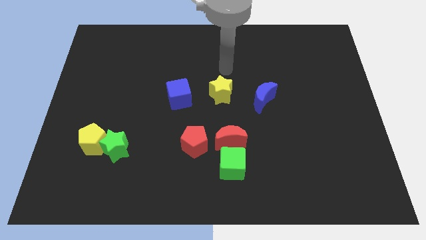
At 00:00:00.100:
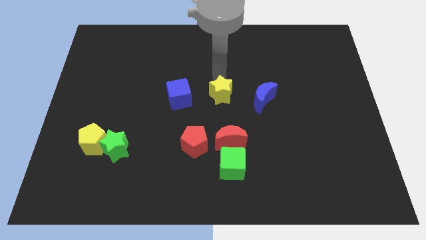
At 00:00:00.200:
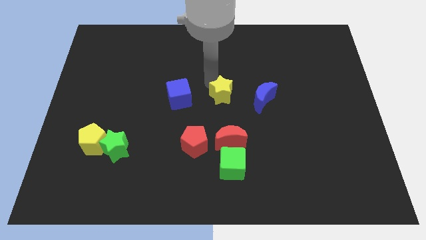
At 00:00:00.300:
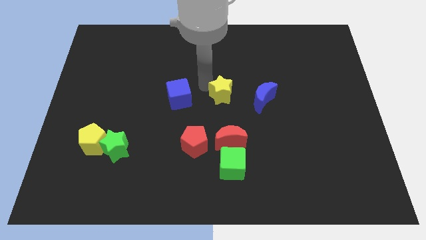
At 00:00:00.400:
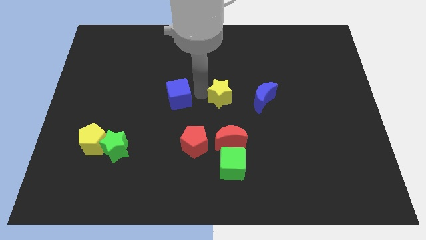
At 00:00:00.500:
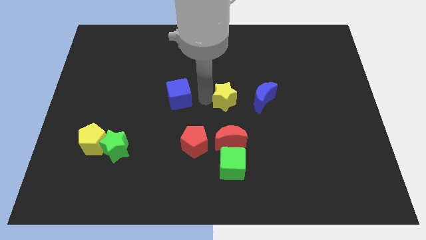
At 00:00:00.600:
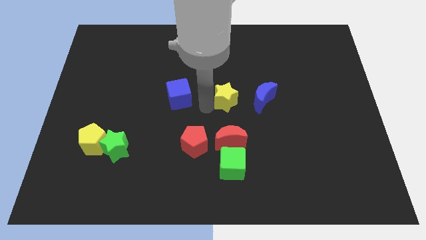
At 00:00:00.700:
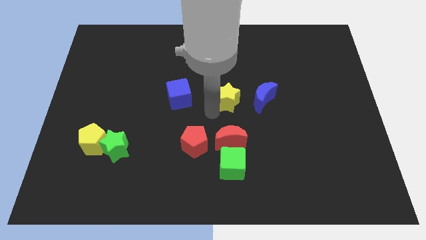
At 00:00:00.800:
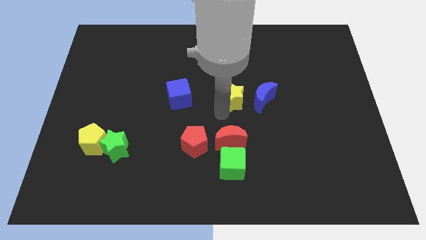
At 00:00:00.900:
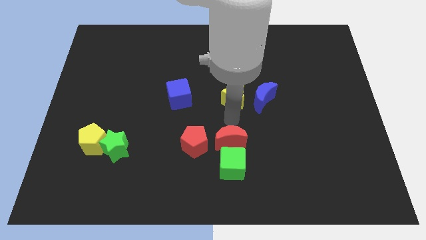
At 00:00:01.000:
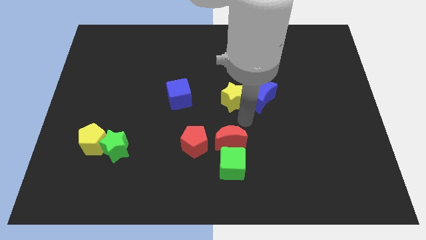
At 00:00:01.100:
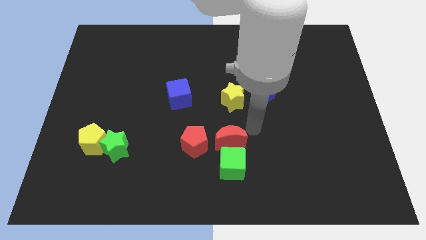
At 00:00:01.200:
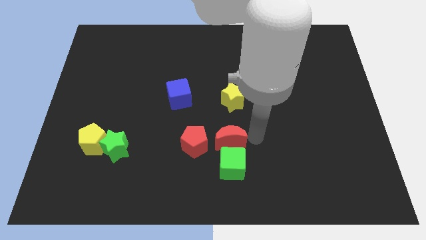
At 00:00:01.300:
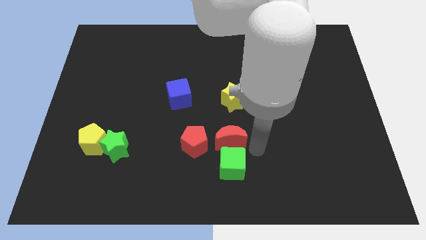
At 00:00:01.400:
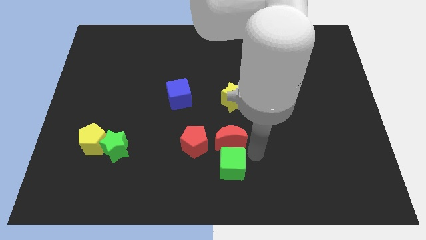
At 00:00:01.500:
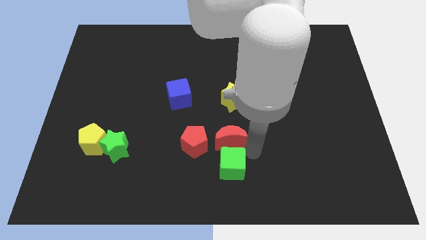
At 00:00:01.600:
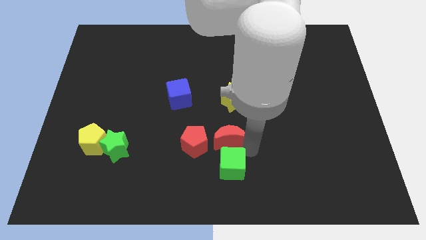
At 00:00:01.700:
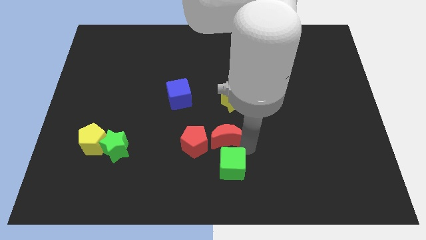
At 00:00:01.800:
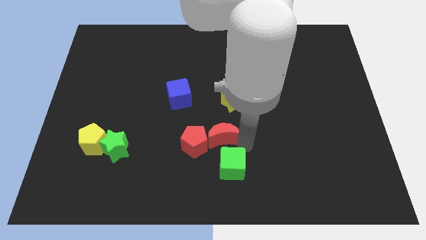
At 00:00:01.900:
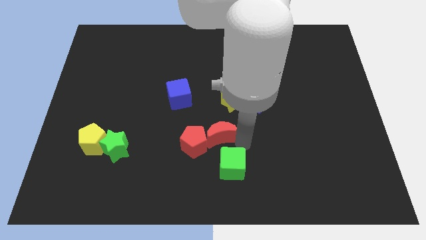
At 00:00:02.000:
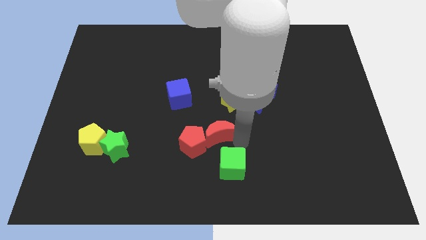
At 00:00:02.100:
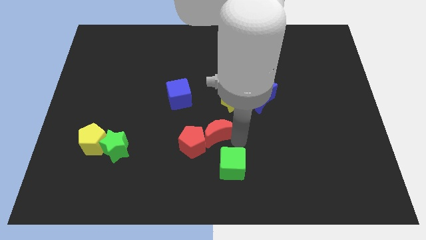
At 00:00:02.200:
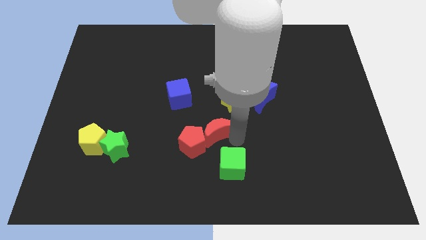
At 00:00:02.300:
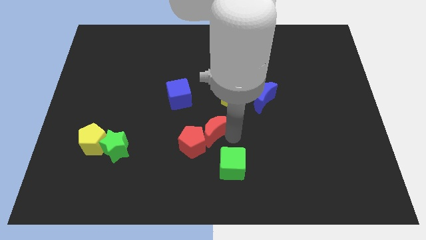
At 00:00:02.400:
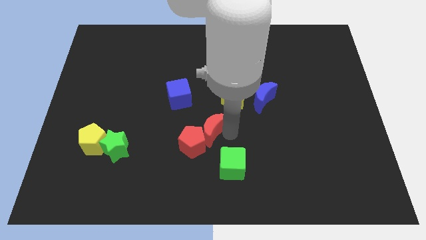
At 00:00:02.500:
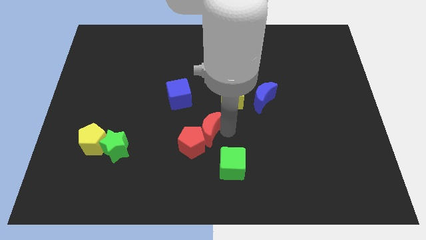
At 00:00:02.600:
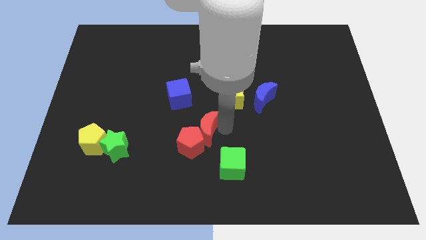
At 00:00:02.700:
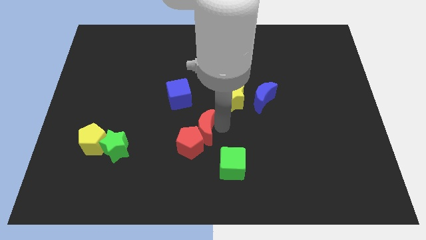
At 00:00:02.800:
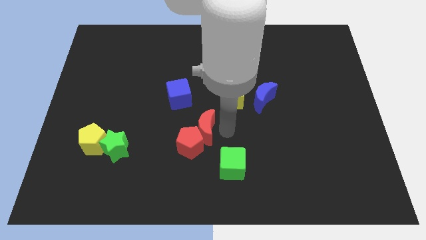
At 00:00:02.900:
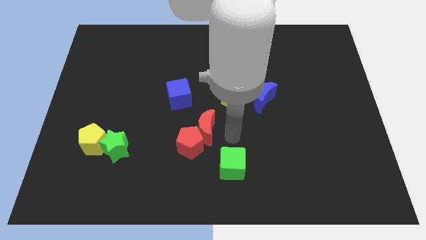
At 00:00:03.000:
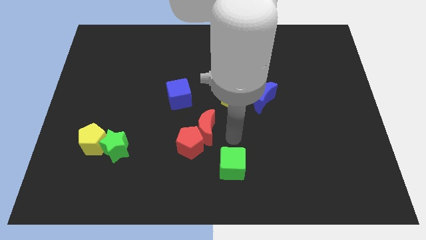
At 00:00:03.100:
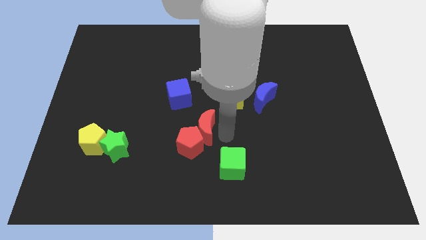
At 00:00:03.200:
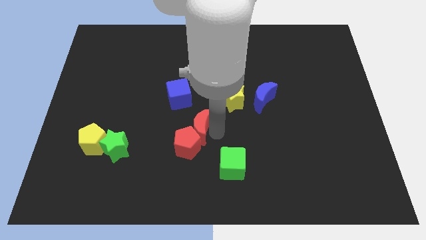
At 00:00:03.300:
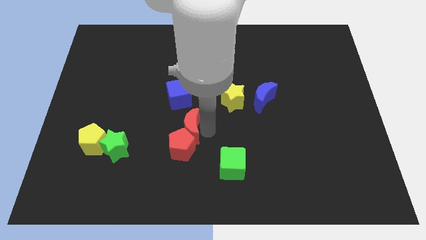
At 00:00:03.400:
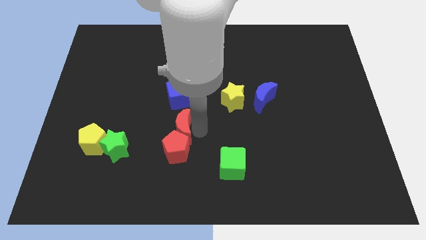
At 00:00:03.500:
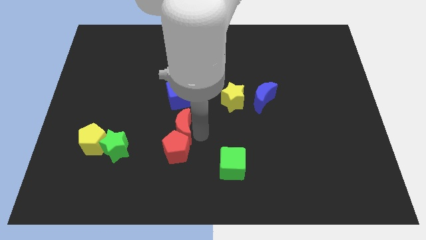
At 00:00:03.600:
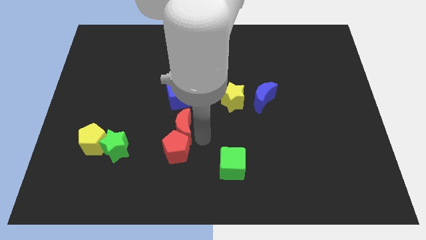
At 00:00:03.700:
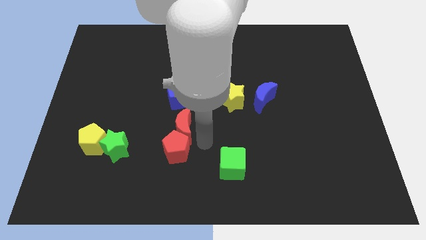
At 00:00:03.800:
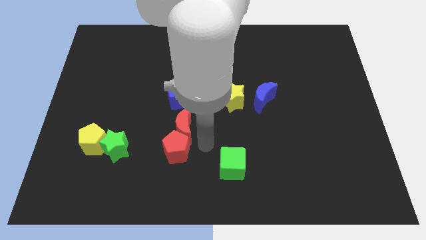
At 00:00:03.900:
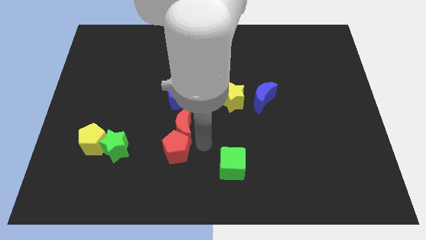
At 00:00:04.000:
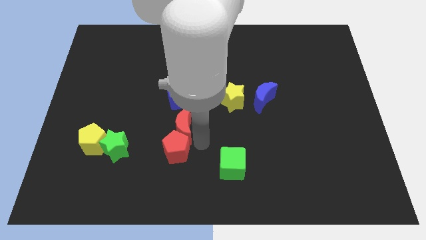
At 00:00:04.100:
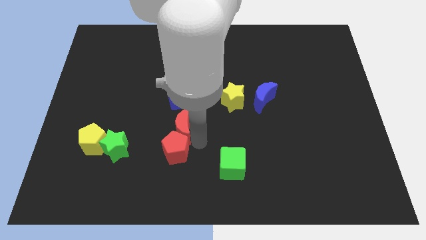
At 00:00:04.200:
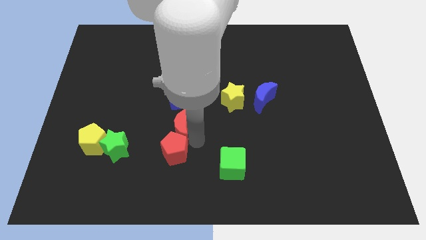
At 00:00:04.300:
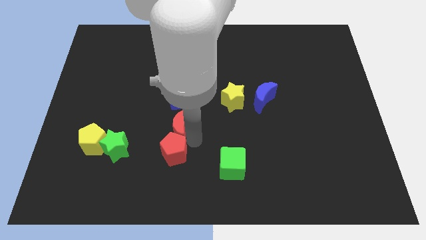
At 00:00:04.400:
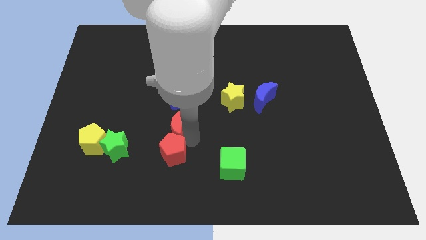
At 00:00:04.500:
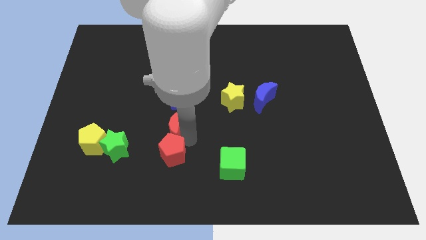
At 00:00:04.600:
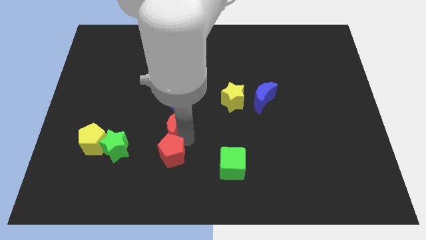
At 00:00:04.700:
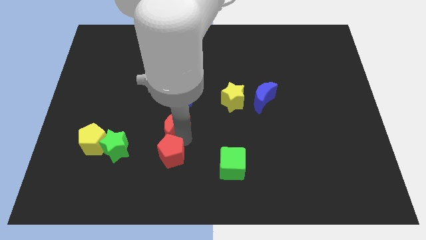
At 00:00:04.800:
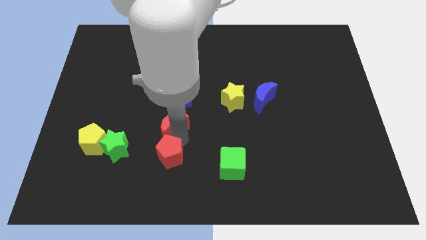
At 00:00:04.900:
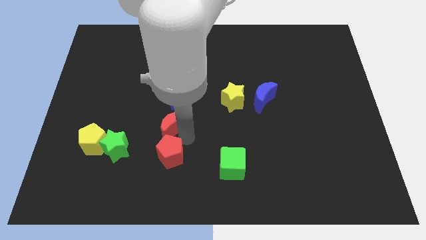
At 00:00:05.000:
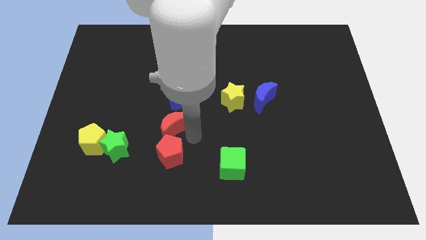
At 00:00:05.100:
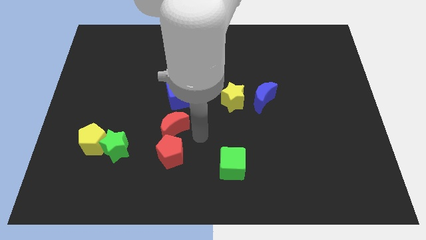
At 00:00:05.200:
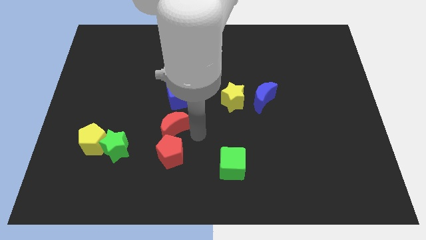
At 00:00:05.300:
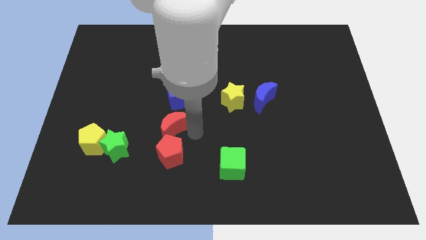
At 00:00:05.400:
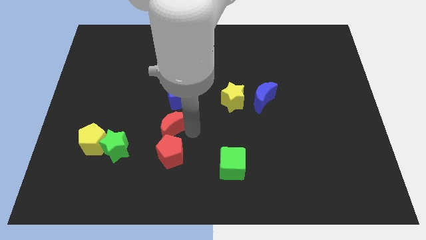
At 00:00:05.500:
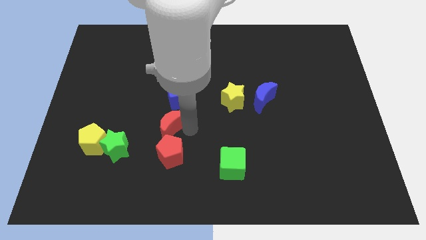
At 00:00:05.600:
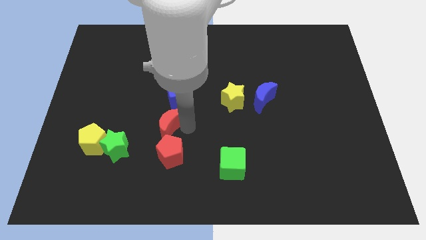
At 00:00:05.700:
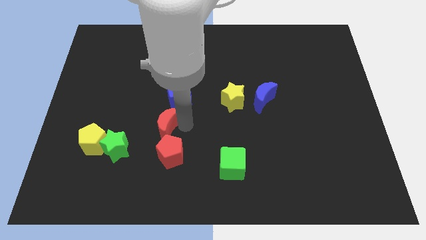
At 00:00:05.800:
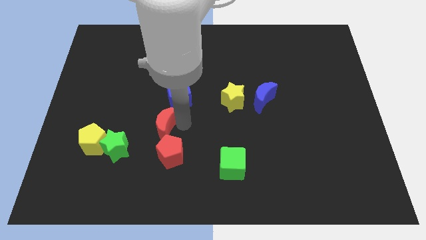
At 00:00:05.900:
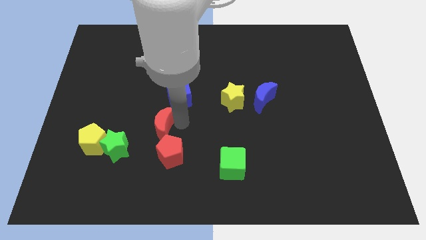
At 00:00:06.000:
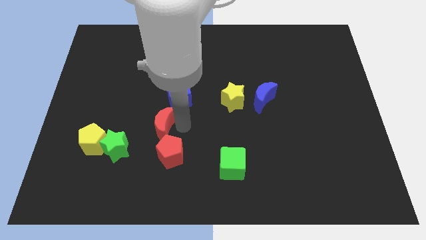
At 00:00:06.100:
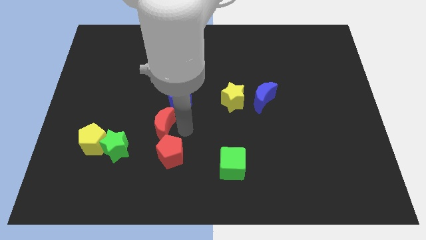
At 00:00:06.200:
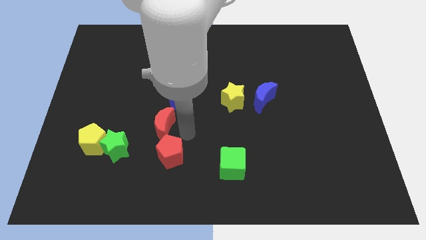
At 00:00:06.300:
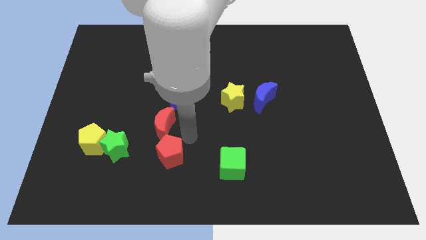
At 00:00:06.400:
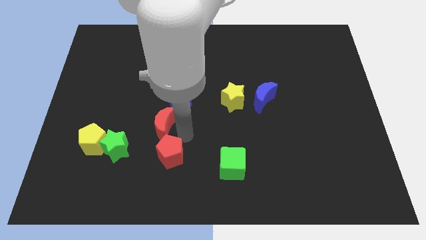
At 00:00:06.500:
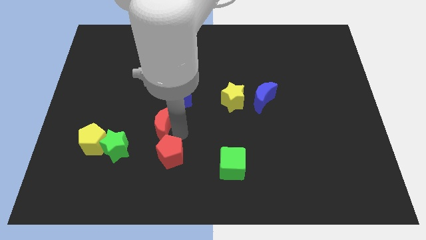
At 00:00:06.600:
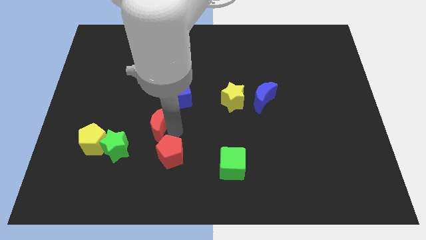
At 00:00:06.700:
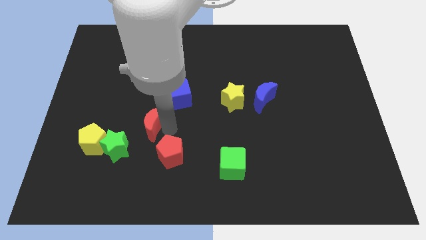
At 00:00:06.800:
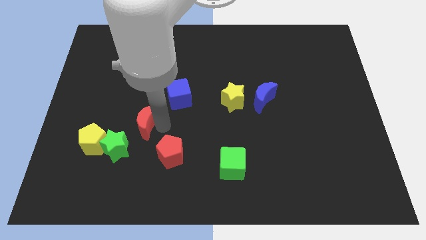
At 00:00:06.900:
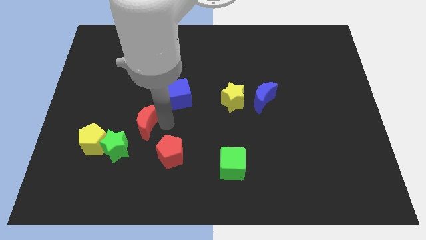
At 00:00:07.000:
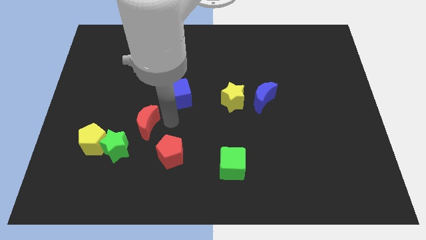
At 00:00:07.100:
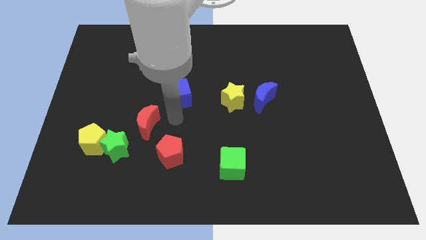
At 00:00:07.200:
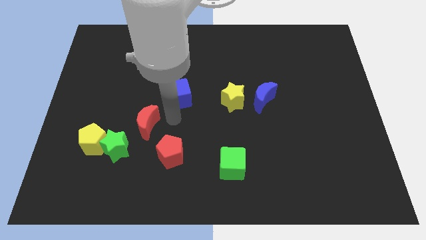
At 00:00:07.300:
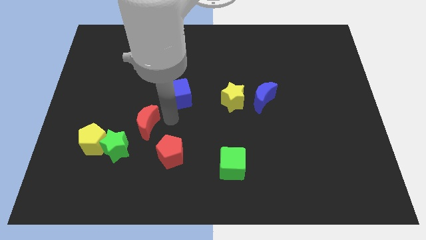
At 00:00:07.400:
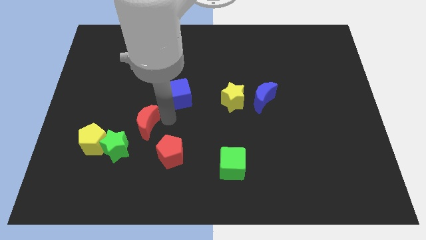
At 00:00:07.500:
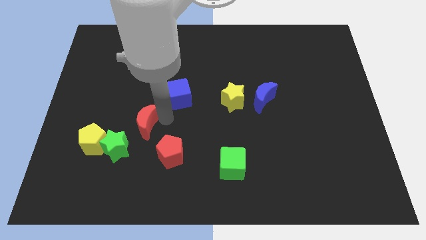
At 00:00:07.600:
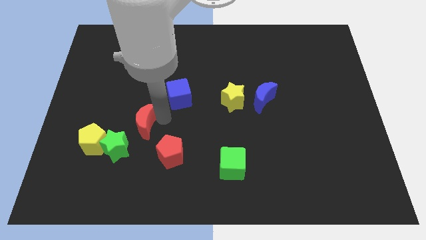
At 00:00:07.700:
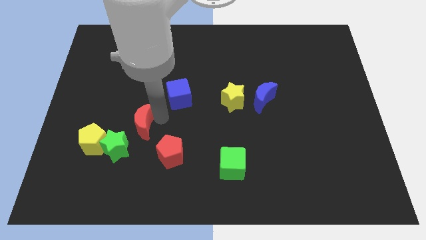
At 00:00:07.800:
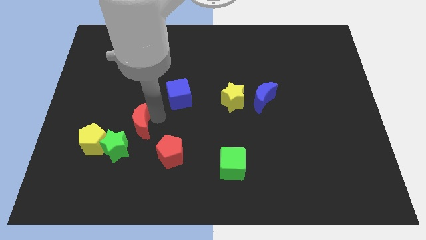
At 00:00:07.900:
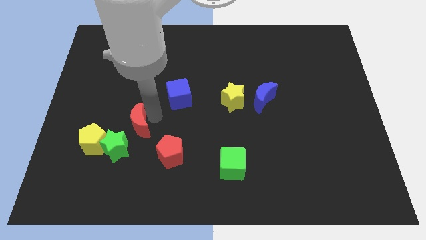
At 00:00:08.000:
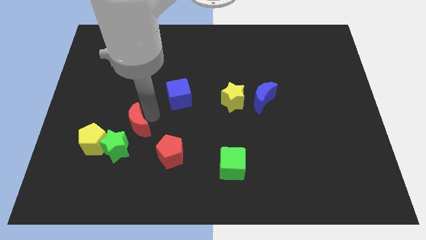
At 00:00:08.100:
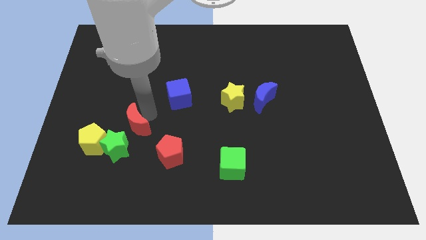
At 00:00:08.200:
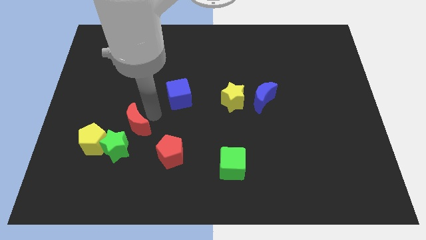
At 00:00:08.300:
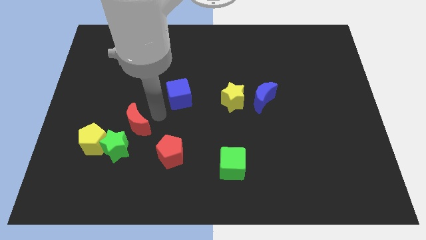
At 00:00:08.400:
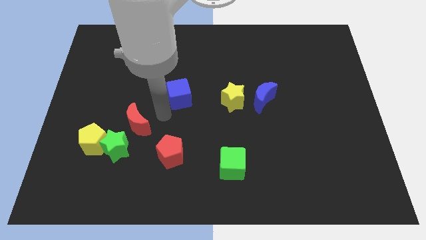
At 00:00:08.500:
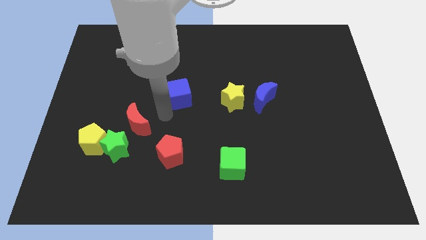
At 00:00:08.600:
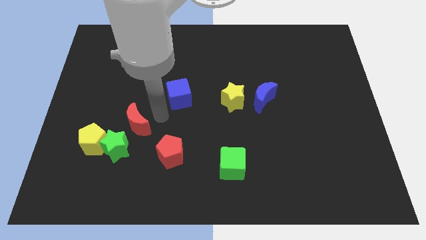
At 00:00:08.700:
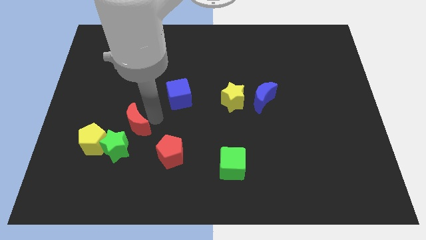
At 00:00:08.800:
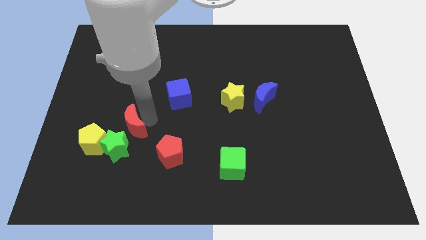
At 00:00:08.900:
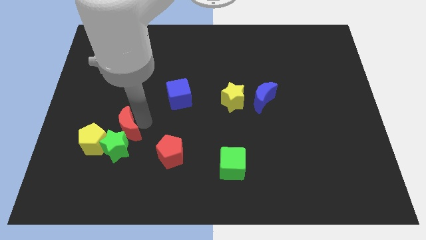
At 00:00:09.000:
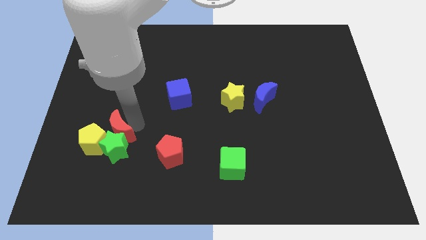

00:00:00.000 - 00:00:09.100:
put the red moon towards the yellow pentagon
